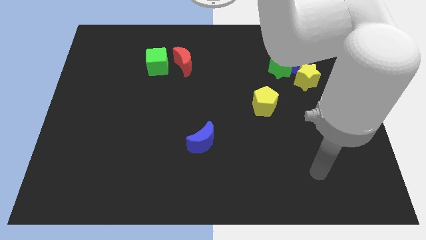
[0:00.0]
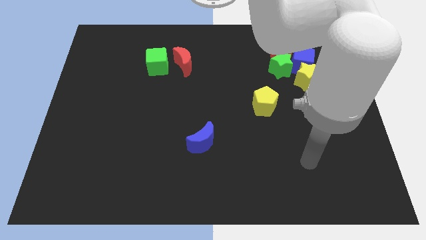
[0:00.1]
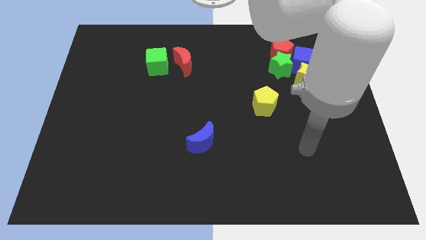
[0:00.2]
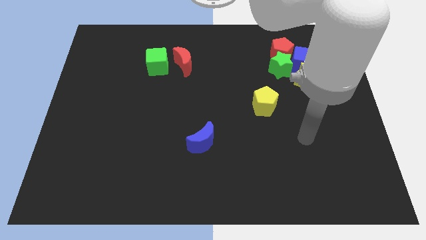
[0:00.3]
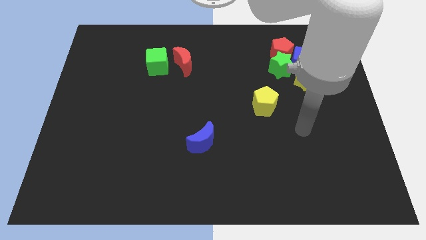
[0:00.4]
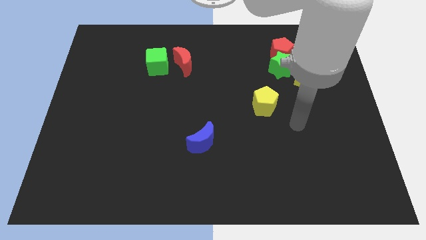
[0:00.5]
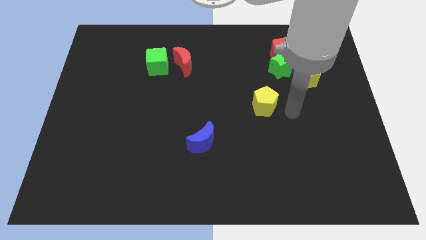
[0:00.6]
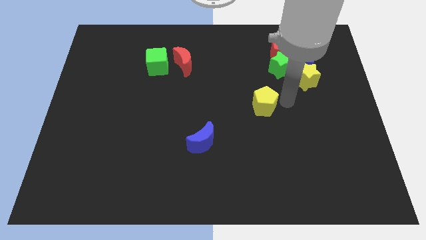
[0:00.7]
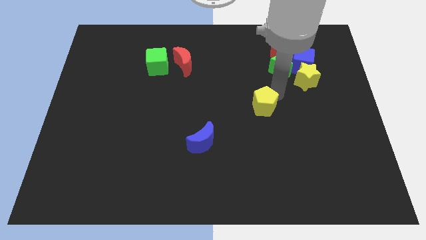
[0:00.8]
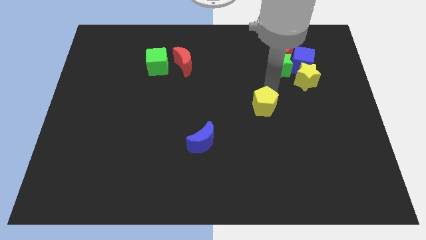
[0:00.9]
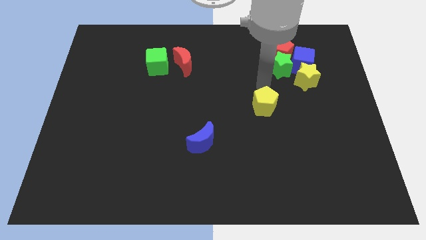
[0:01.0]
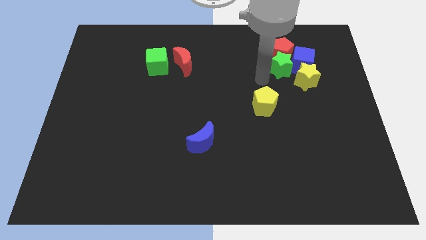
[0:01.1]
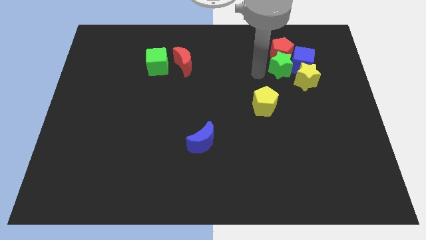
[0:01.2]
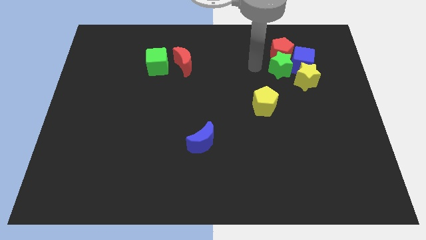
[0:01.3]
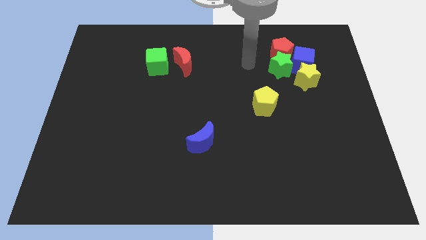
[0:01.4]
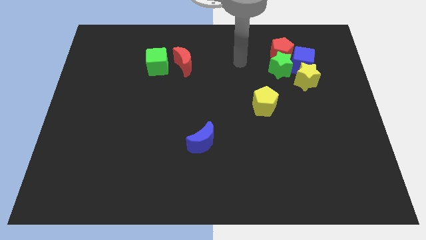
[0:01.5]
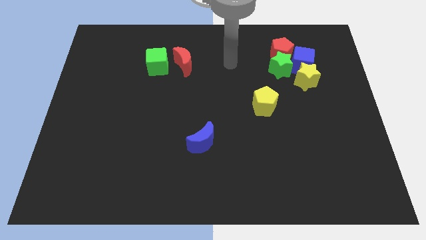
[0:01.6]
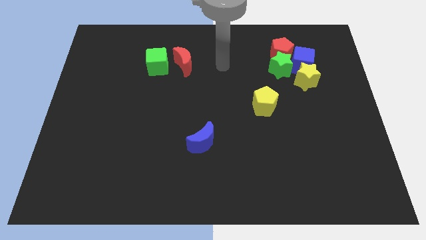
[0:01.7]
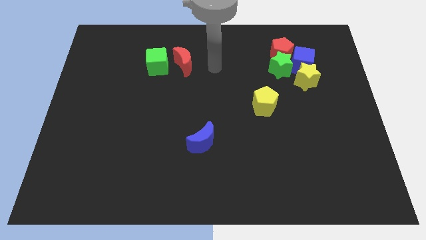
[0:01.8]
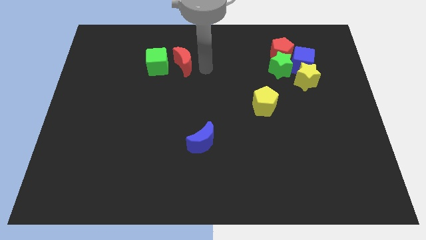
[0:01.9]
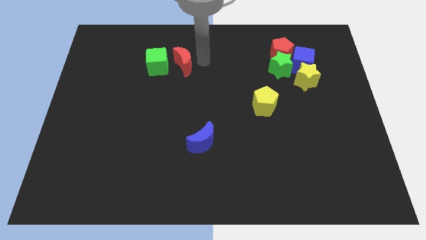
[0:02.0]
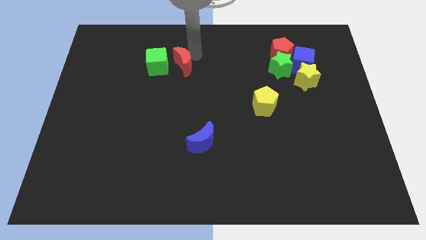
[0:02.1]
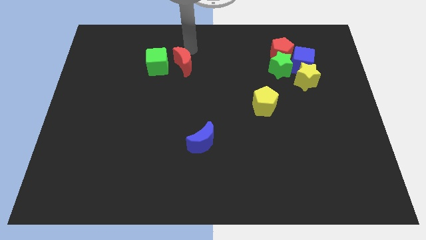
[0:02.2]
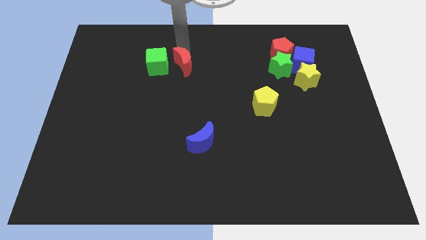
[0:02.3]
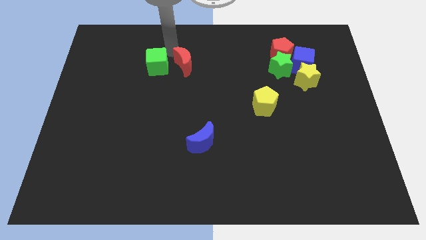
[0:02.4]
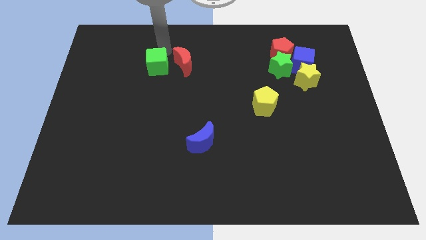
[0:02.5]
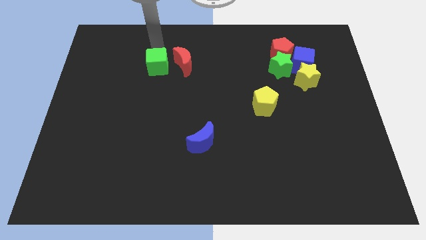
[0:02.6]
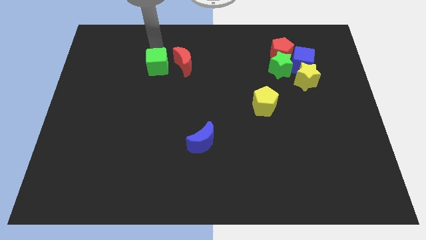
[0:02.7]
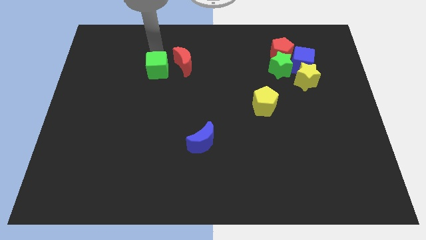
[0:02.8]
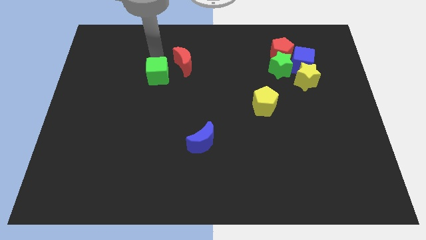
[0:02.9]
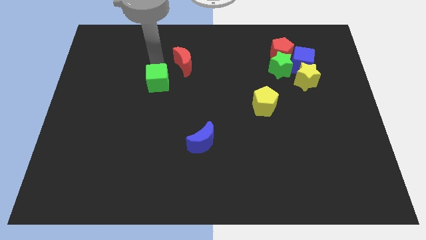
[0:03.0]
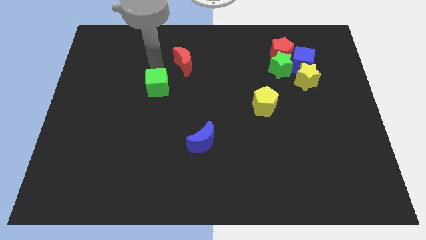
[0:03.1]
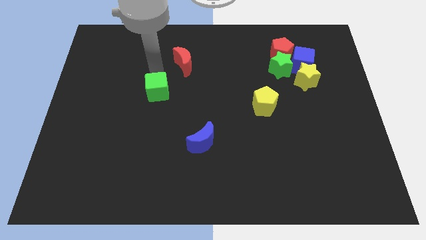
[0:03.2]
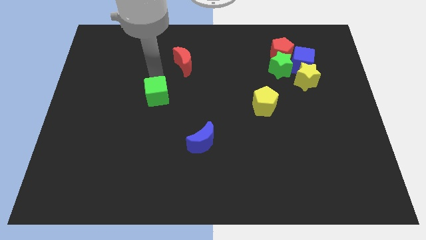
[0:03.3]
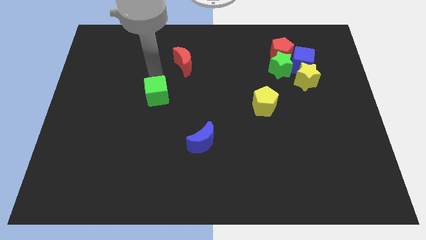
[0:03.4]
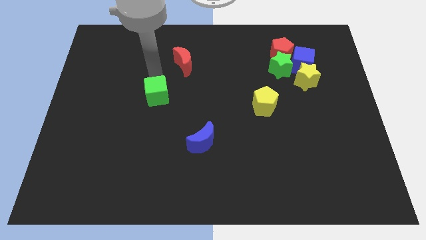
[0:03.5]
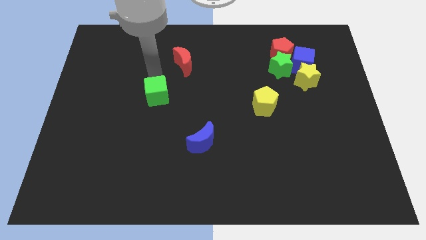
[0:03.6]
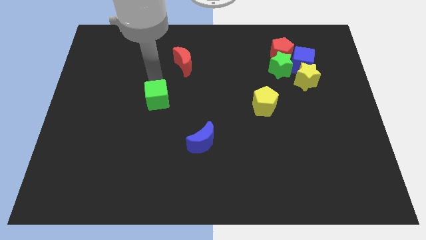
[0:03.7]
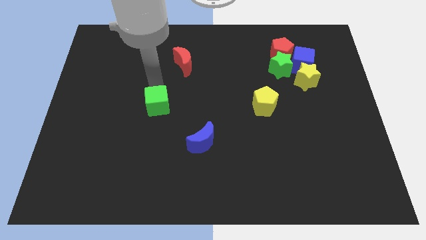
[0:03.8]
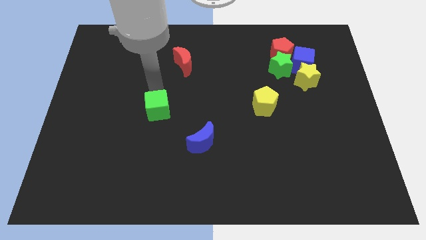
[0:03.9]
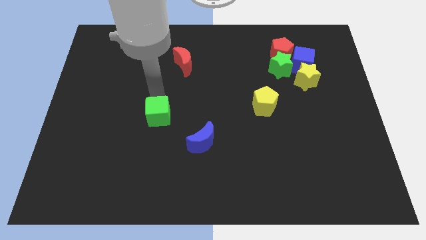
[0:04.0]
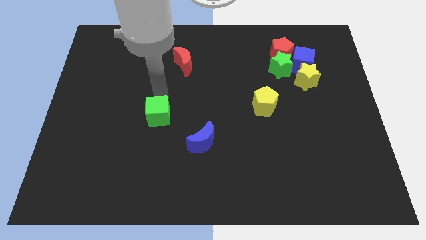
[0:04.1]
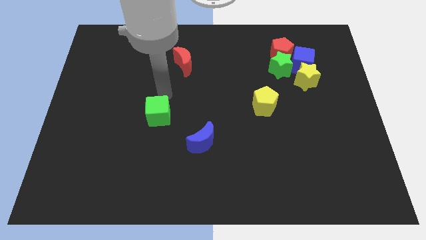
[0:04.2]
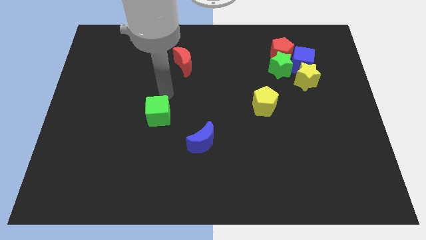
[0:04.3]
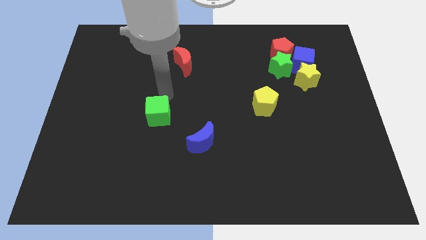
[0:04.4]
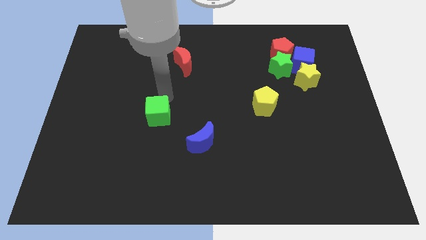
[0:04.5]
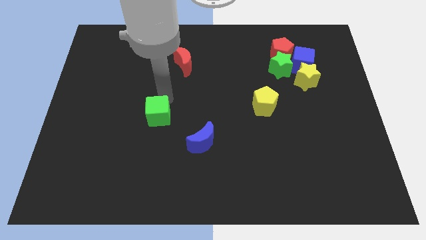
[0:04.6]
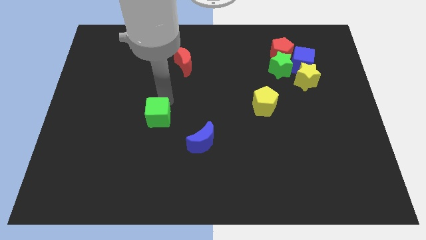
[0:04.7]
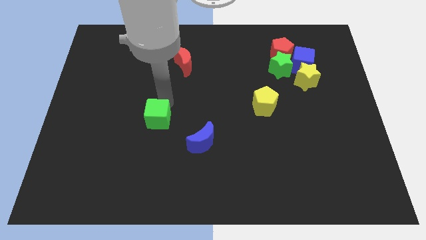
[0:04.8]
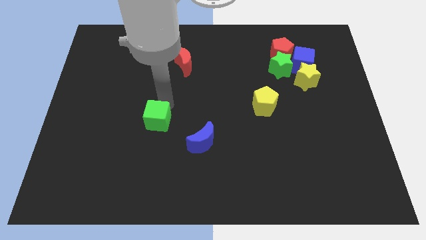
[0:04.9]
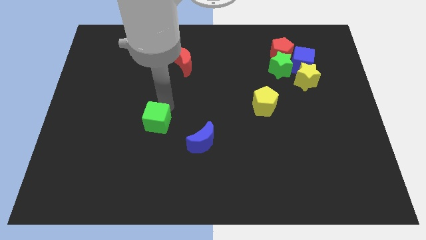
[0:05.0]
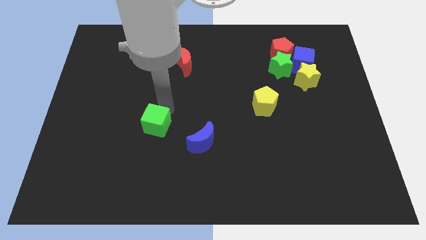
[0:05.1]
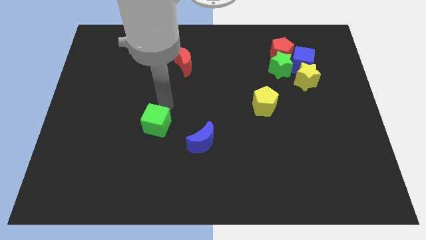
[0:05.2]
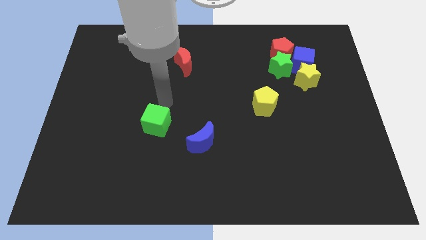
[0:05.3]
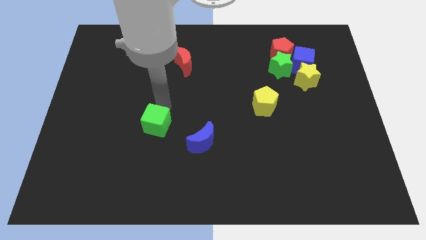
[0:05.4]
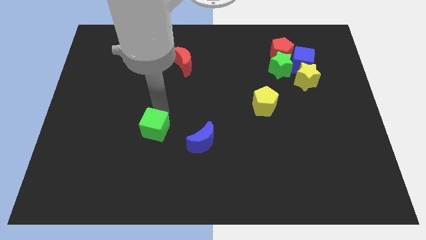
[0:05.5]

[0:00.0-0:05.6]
move the green cube down

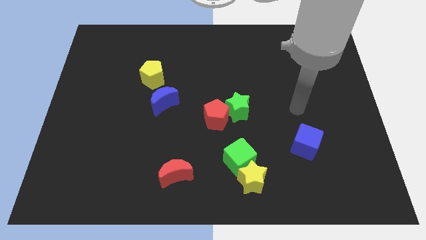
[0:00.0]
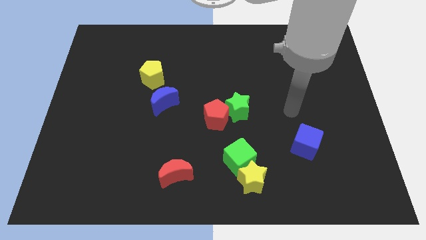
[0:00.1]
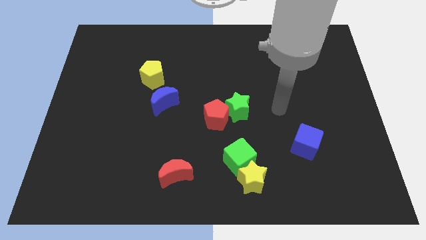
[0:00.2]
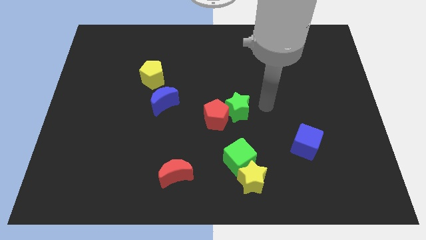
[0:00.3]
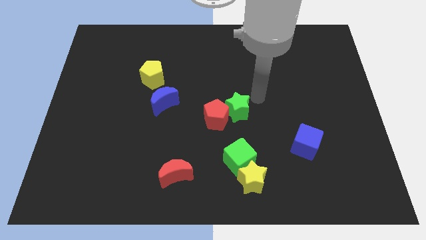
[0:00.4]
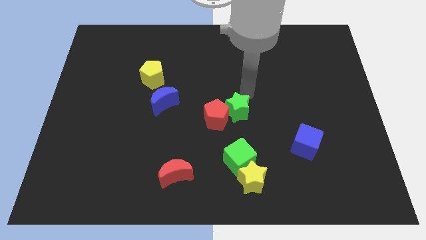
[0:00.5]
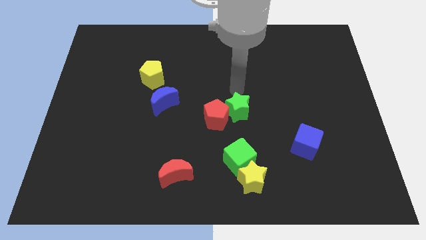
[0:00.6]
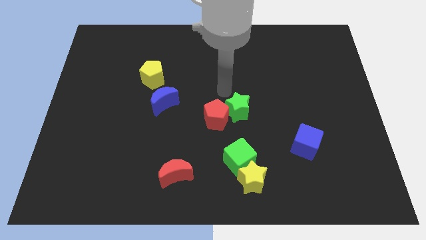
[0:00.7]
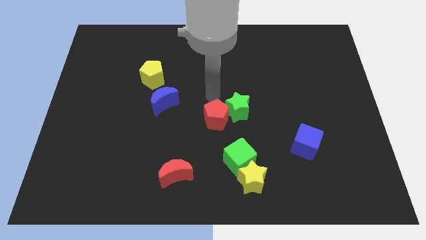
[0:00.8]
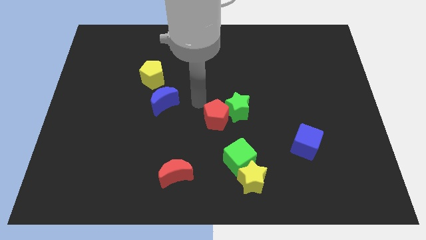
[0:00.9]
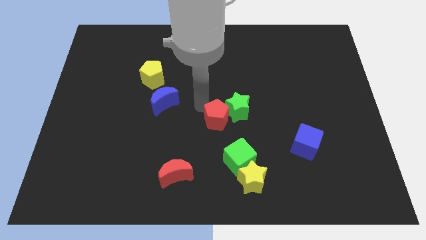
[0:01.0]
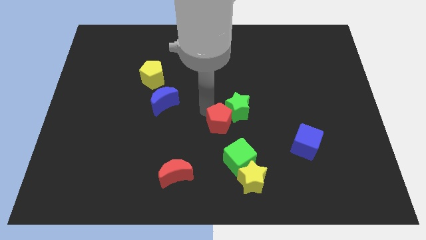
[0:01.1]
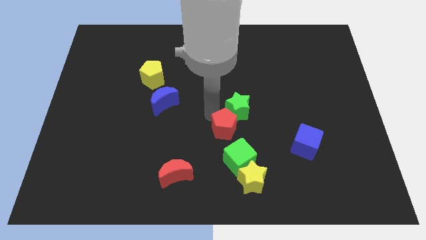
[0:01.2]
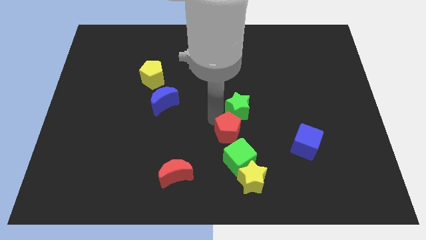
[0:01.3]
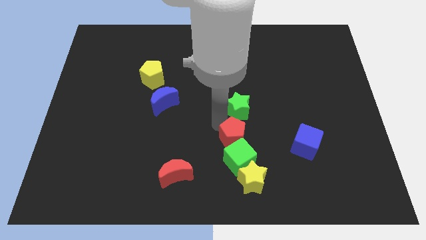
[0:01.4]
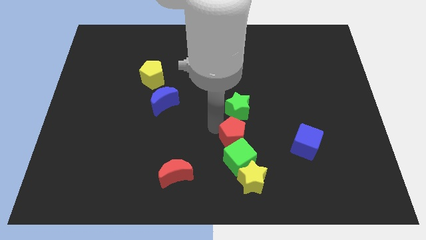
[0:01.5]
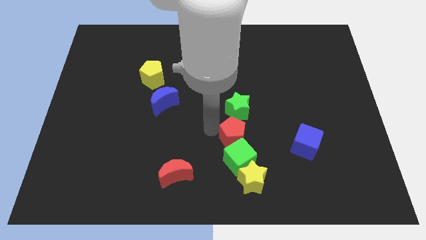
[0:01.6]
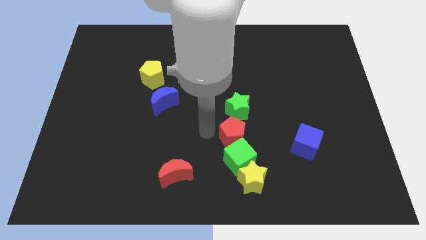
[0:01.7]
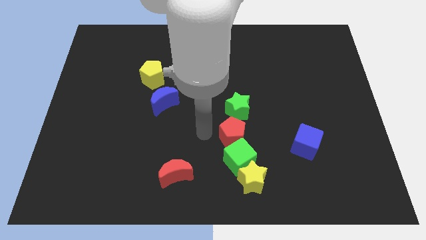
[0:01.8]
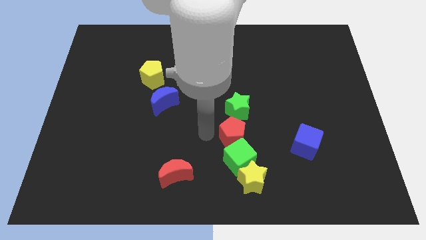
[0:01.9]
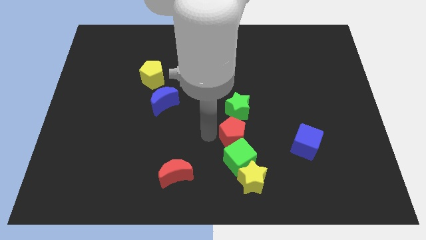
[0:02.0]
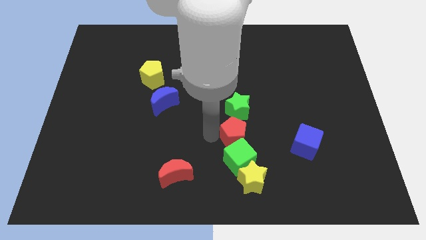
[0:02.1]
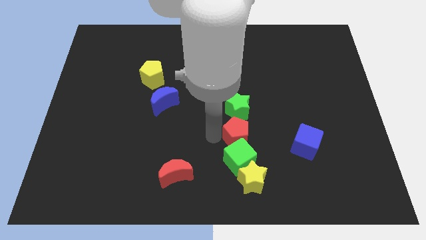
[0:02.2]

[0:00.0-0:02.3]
slightly push the red pentagon downwards and then to the right

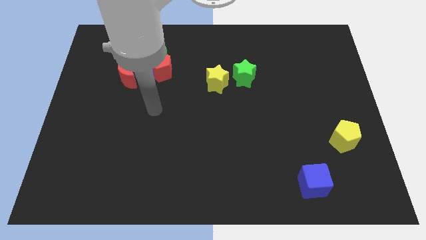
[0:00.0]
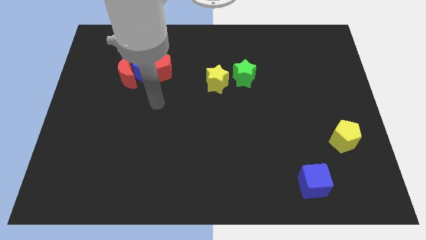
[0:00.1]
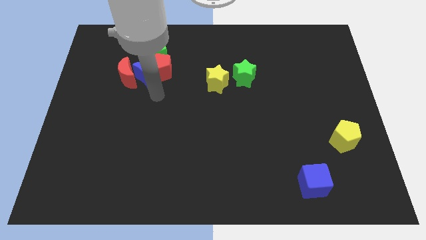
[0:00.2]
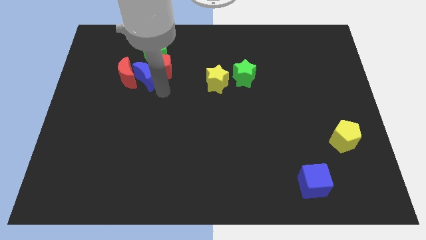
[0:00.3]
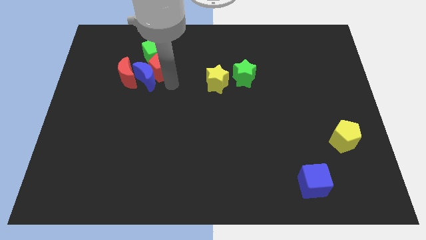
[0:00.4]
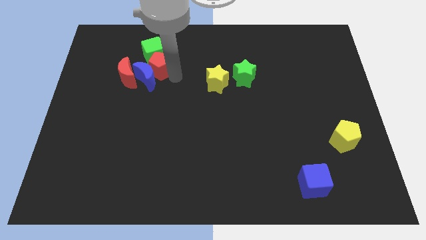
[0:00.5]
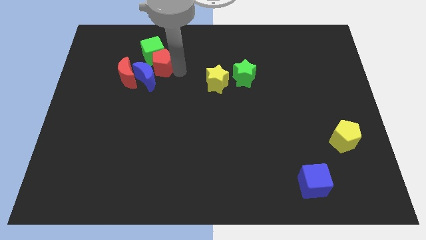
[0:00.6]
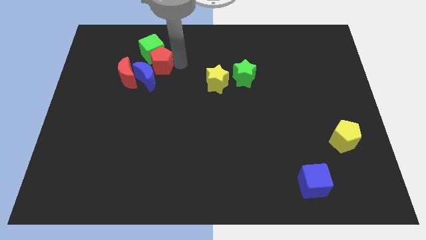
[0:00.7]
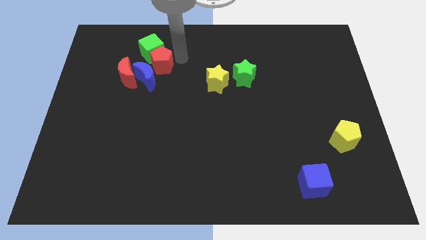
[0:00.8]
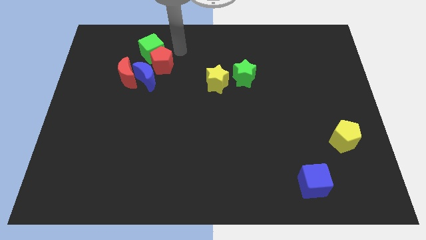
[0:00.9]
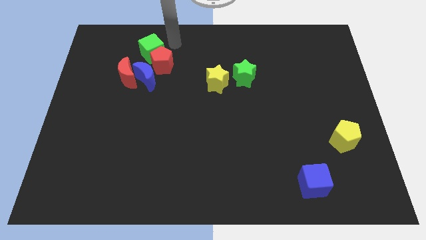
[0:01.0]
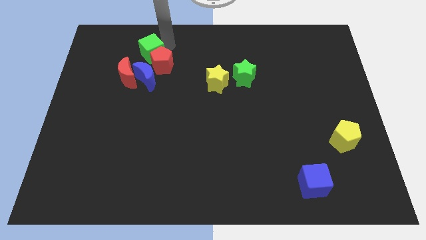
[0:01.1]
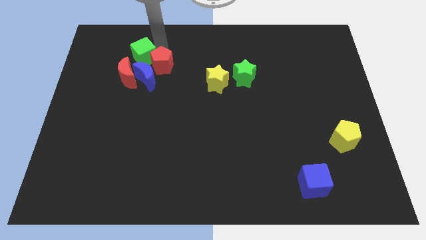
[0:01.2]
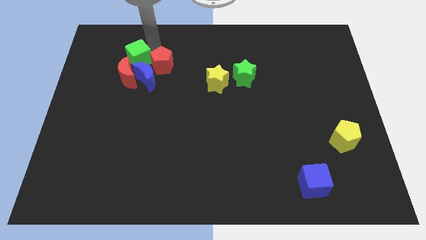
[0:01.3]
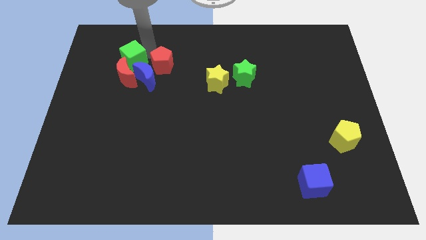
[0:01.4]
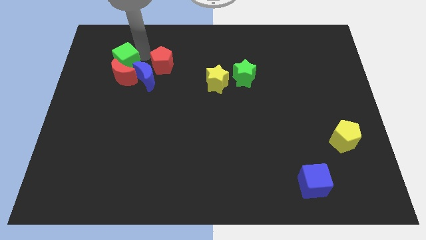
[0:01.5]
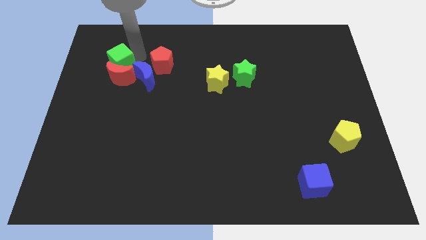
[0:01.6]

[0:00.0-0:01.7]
move the green cube slightly diagonally downwards and left
